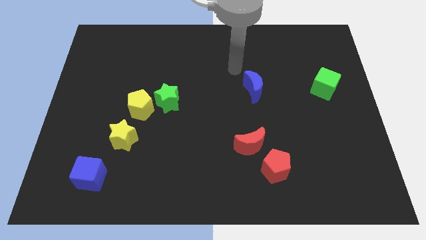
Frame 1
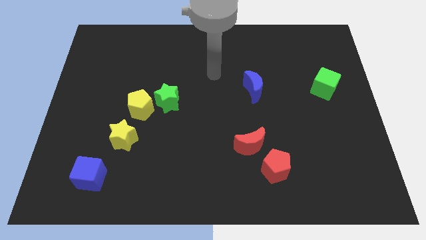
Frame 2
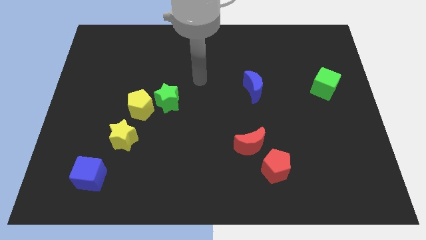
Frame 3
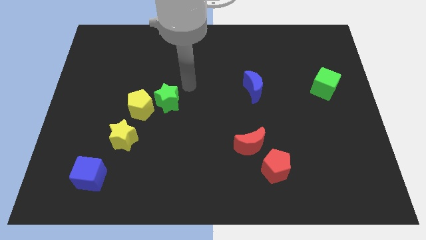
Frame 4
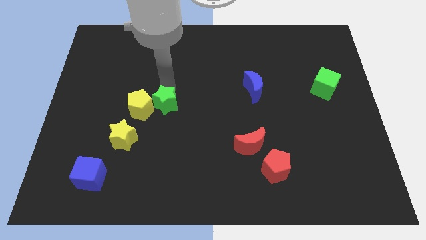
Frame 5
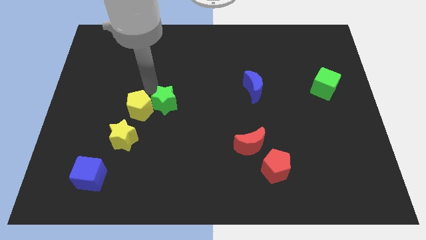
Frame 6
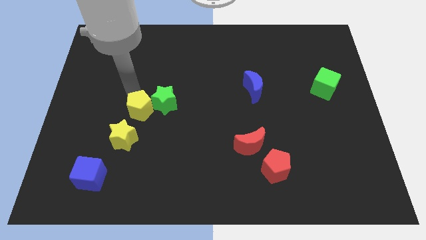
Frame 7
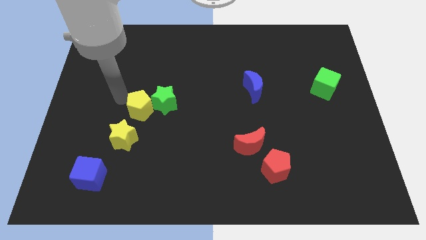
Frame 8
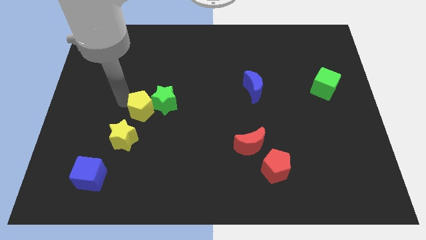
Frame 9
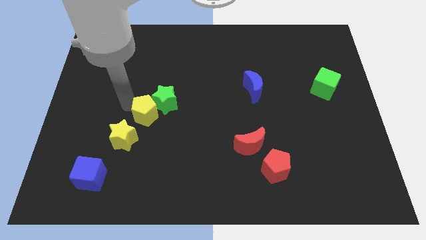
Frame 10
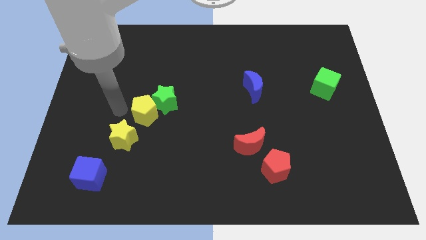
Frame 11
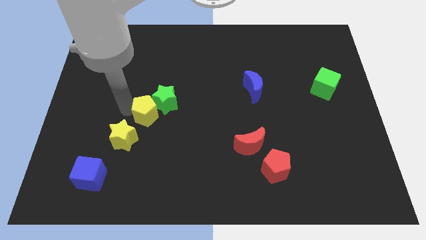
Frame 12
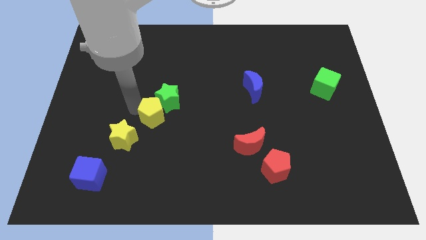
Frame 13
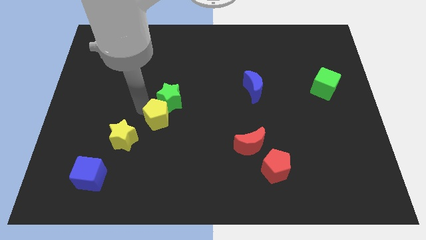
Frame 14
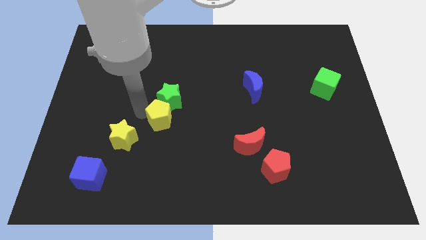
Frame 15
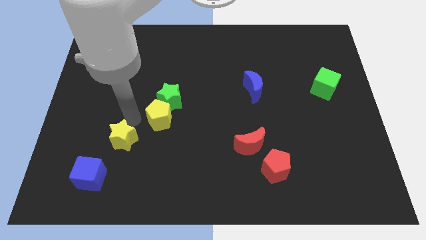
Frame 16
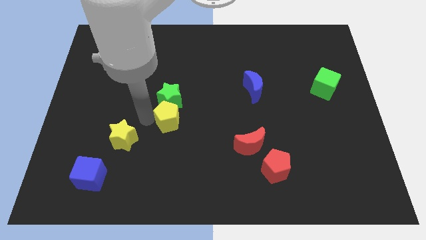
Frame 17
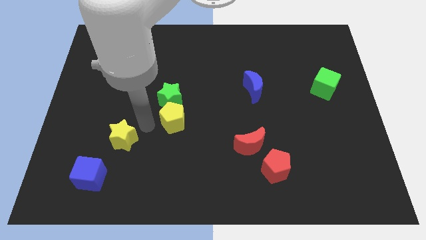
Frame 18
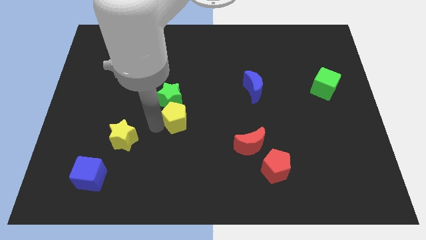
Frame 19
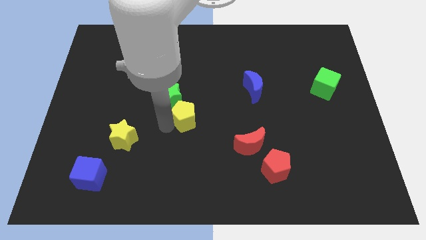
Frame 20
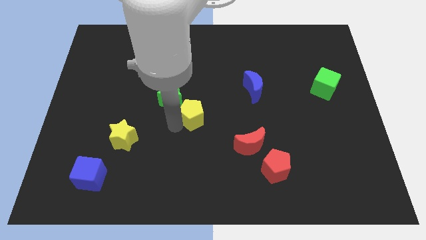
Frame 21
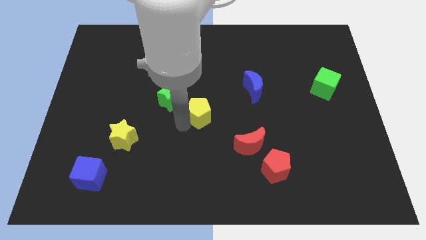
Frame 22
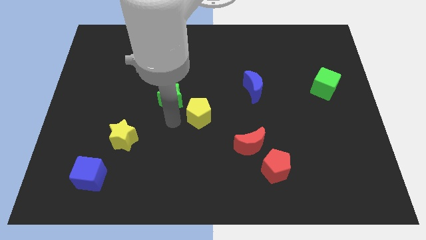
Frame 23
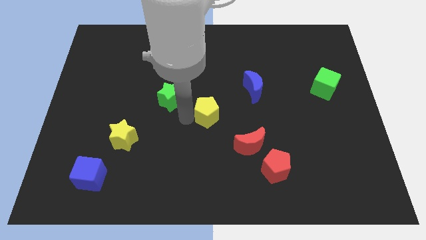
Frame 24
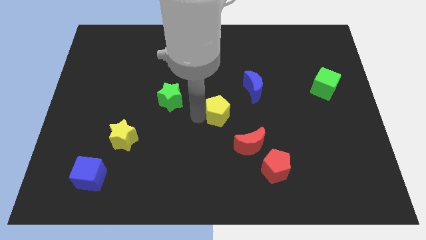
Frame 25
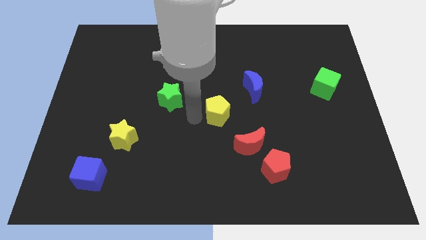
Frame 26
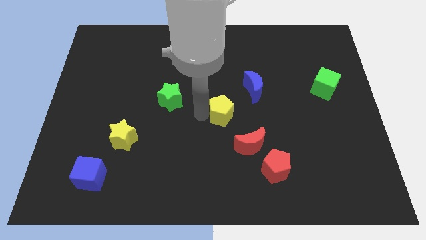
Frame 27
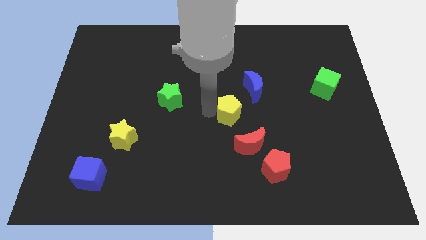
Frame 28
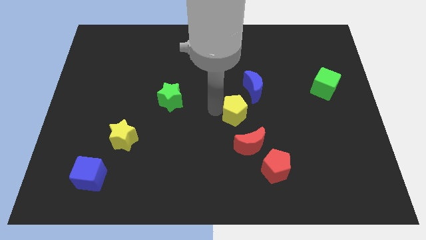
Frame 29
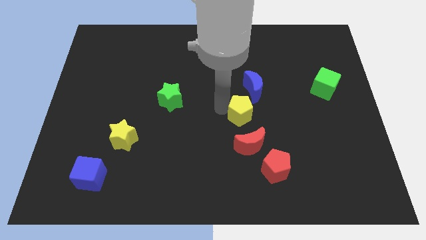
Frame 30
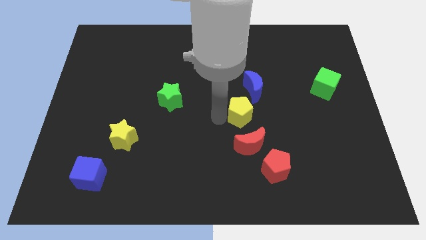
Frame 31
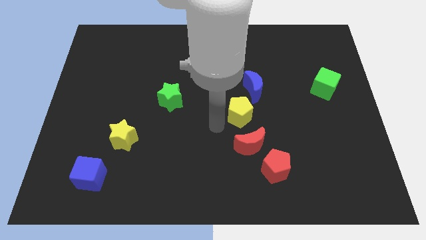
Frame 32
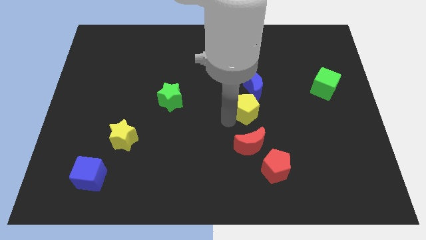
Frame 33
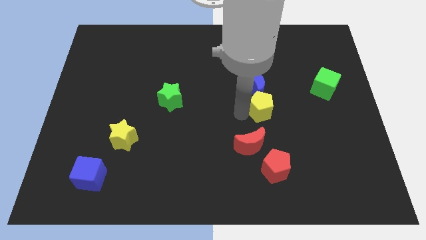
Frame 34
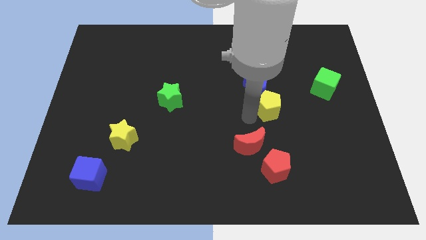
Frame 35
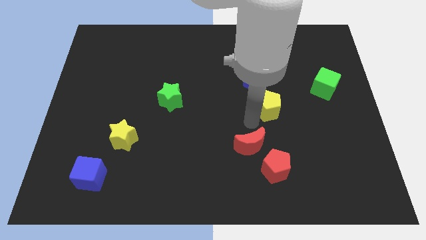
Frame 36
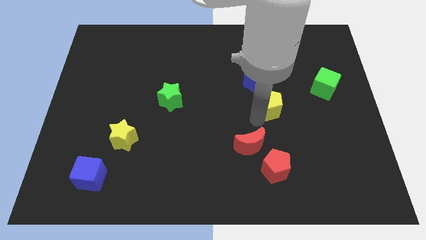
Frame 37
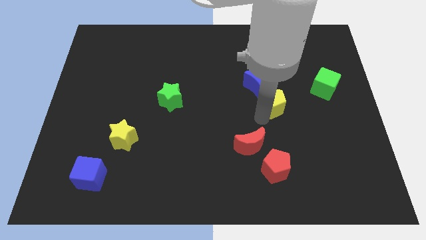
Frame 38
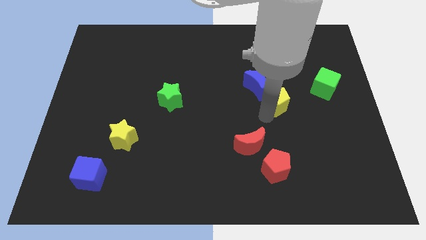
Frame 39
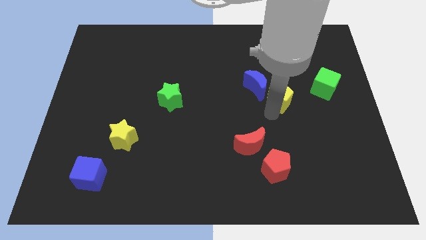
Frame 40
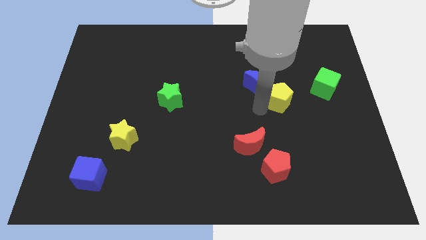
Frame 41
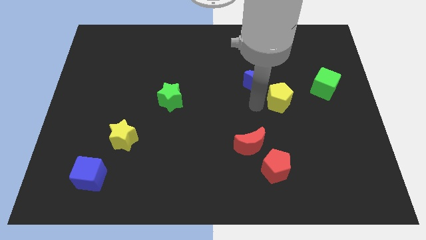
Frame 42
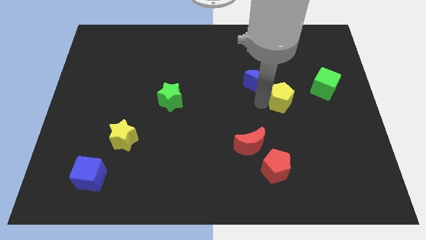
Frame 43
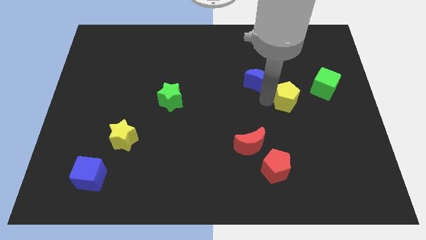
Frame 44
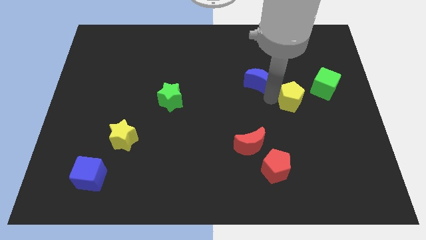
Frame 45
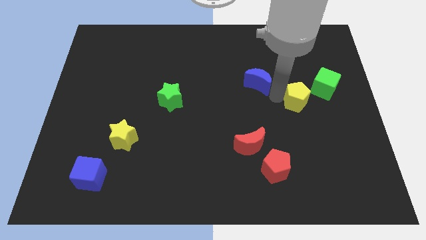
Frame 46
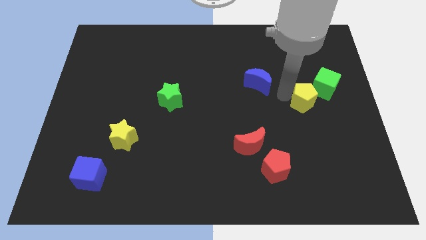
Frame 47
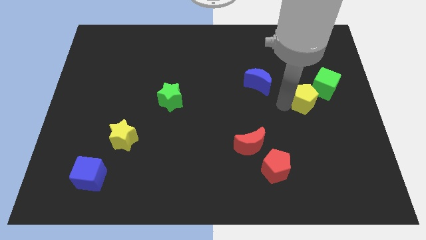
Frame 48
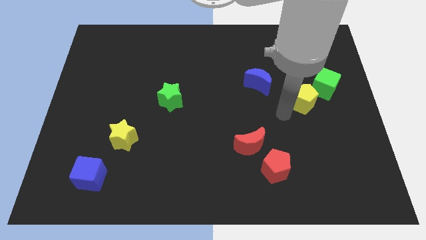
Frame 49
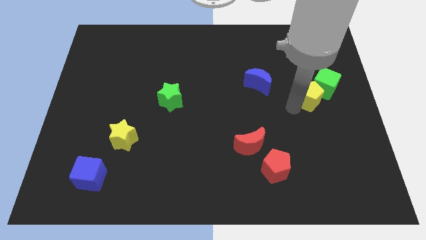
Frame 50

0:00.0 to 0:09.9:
put the yellow pentagon towards the green cube

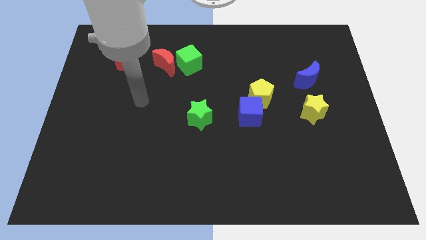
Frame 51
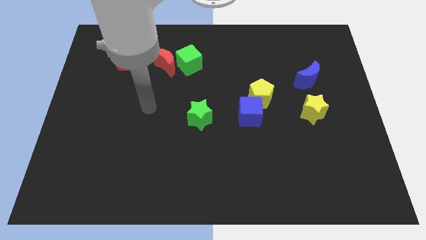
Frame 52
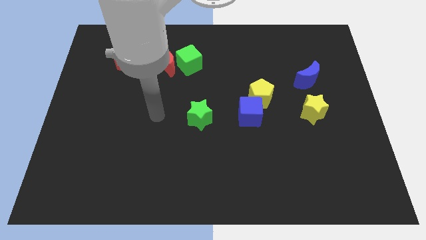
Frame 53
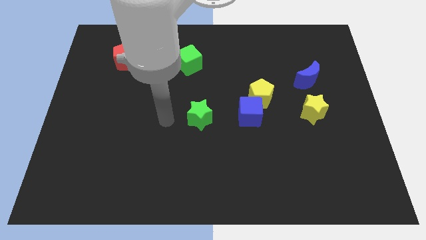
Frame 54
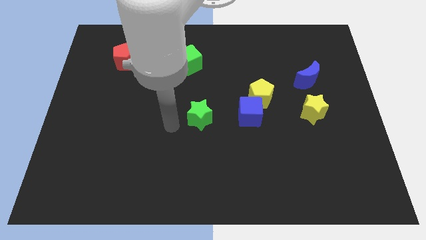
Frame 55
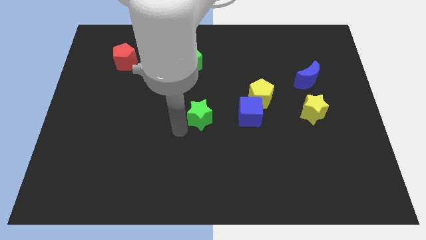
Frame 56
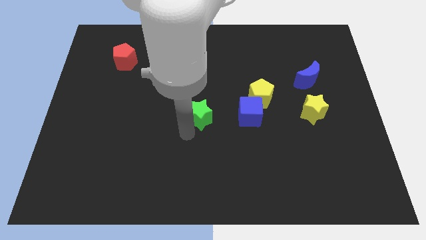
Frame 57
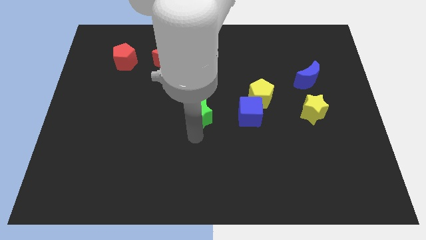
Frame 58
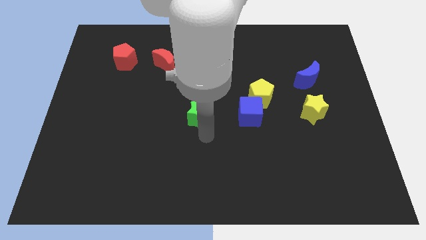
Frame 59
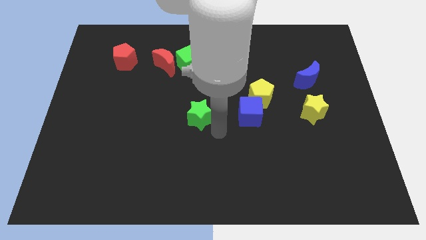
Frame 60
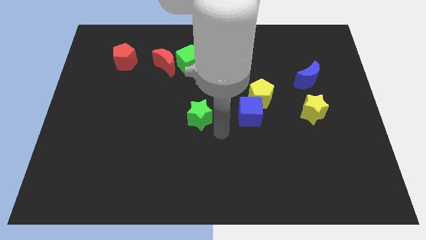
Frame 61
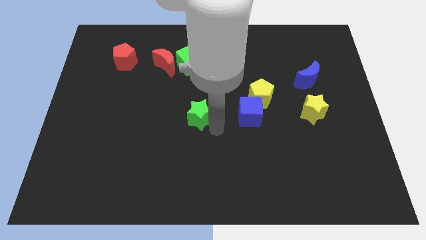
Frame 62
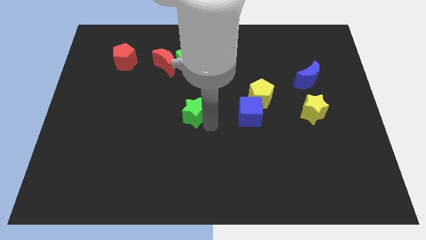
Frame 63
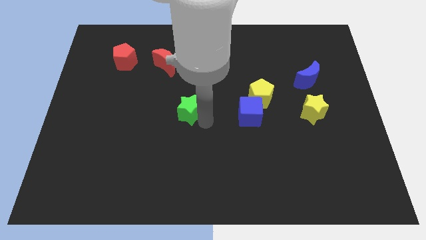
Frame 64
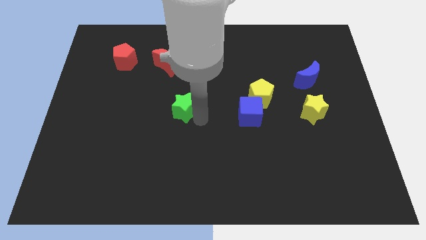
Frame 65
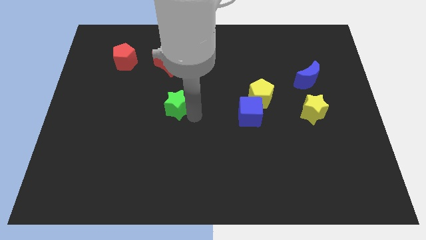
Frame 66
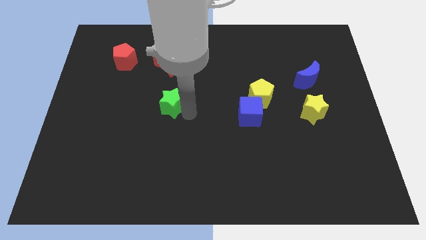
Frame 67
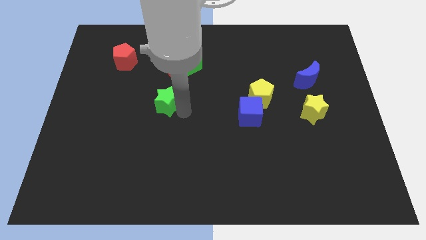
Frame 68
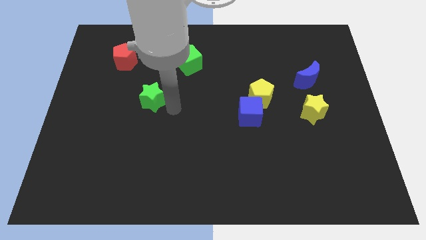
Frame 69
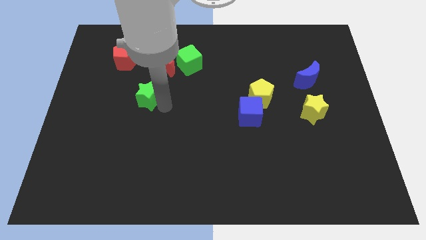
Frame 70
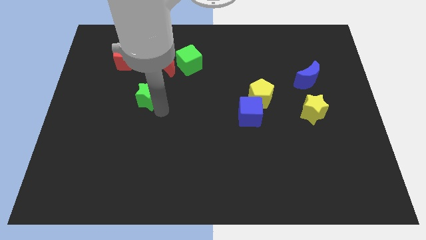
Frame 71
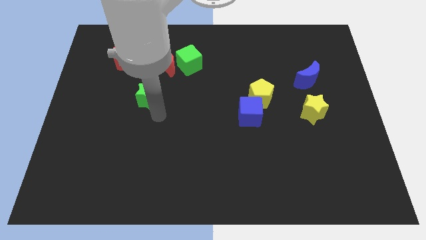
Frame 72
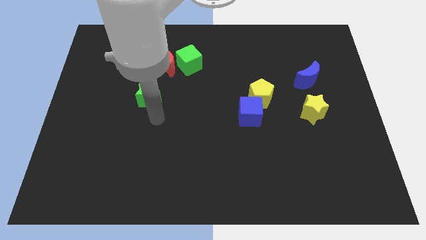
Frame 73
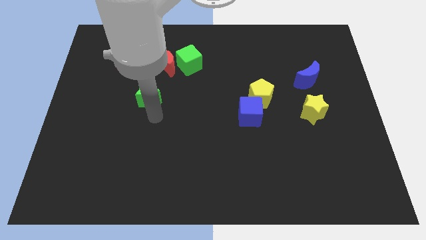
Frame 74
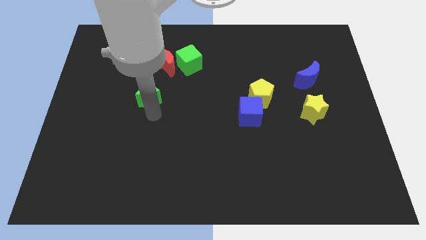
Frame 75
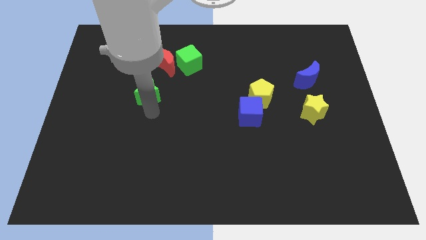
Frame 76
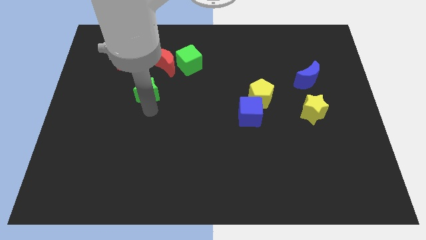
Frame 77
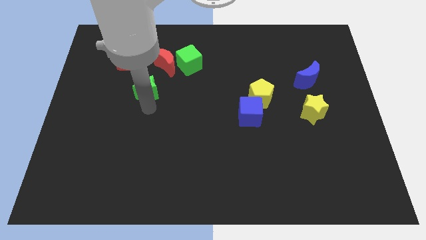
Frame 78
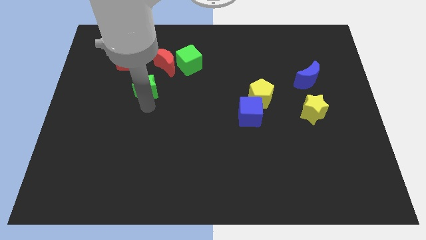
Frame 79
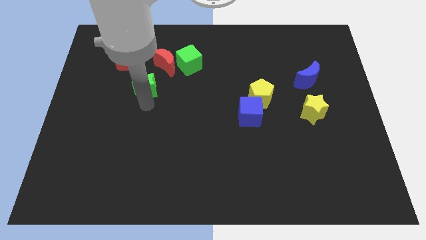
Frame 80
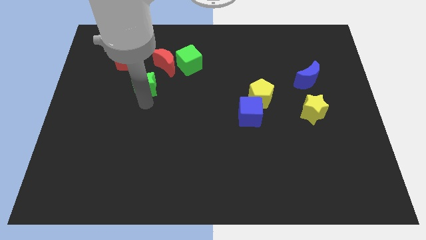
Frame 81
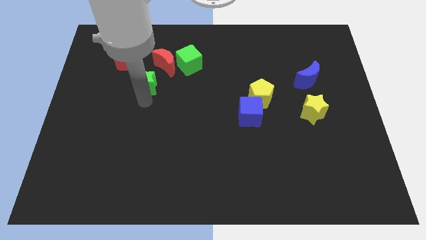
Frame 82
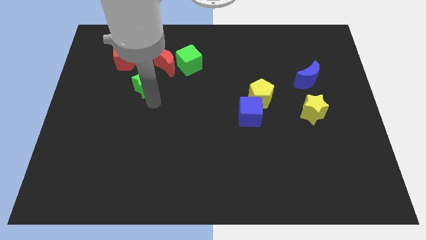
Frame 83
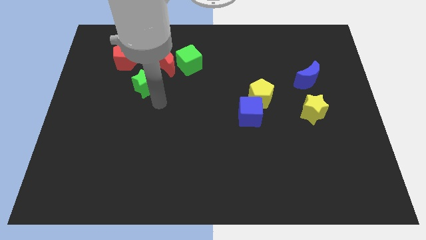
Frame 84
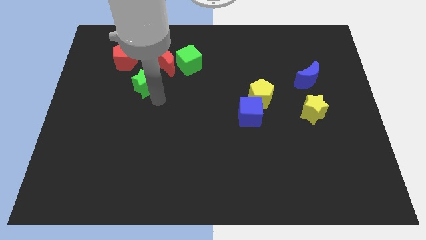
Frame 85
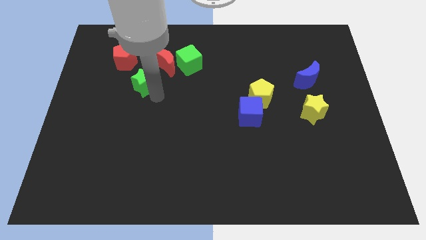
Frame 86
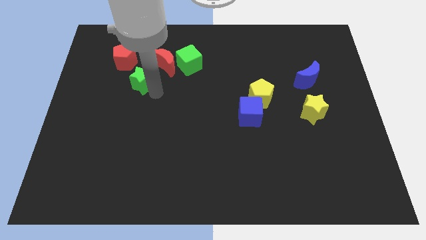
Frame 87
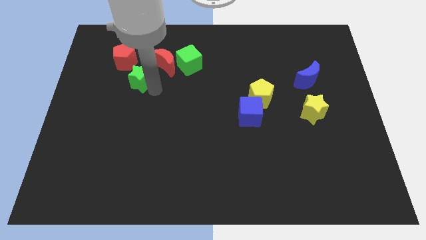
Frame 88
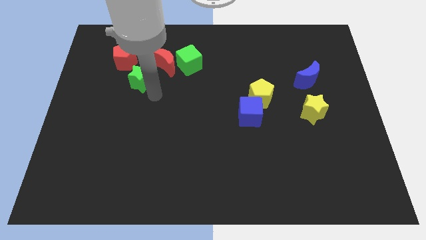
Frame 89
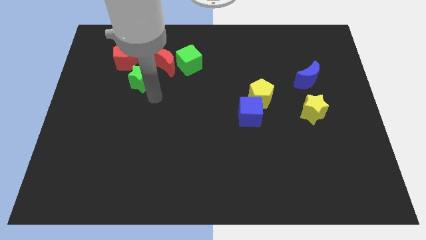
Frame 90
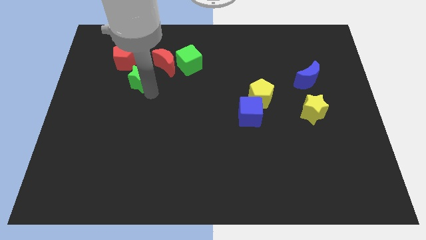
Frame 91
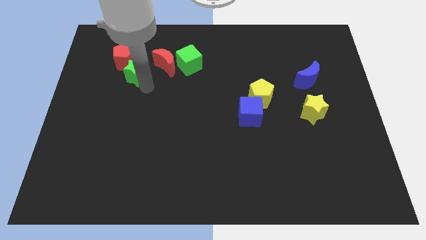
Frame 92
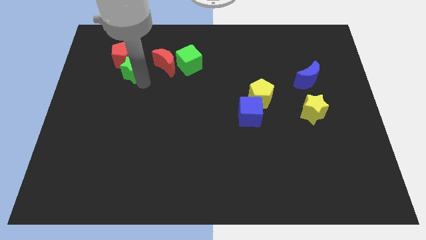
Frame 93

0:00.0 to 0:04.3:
move the green star close to the red pentagon
